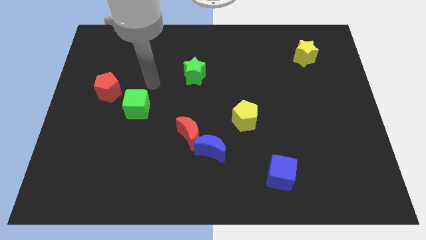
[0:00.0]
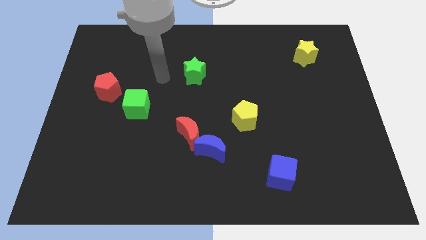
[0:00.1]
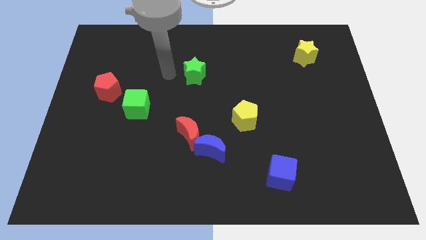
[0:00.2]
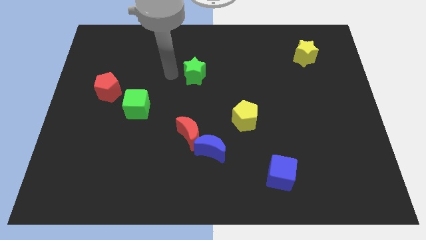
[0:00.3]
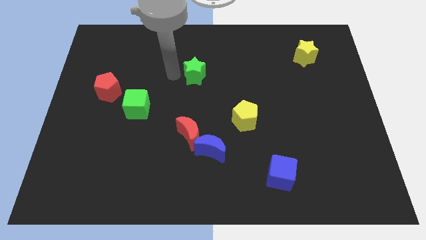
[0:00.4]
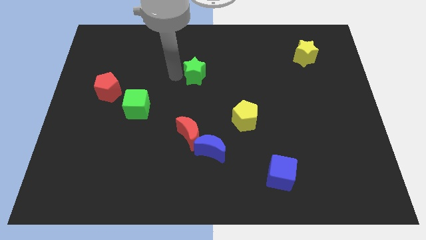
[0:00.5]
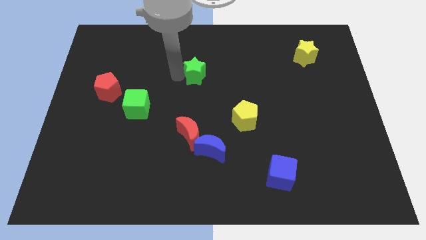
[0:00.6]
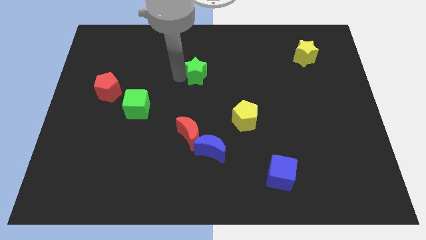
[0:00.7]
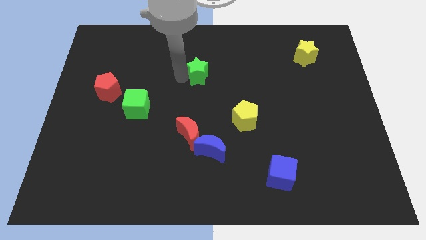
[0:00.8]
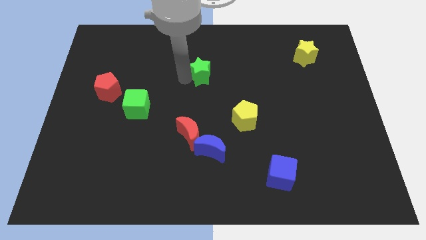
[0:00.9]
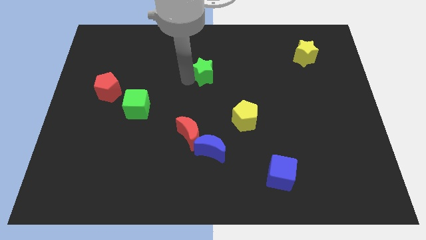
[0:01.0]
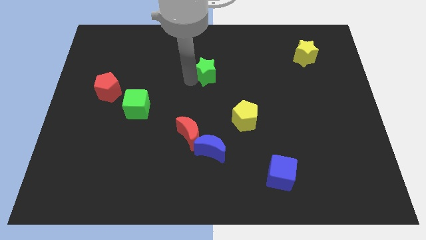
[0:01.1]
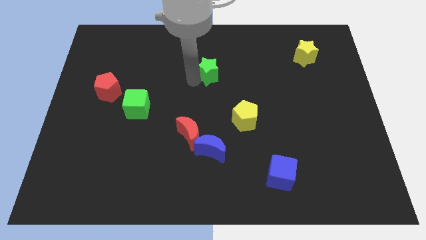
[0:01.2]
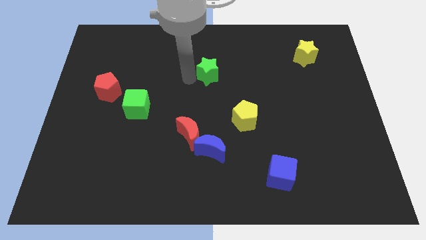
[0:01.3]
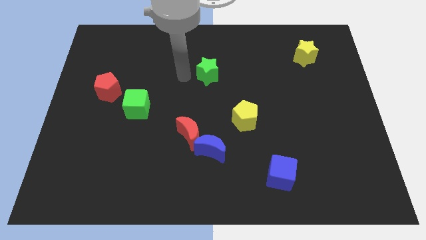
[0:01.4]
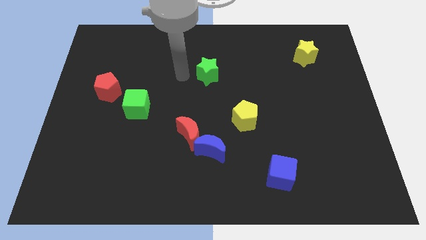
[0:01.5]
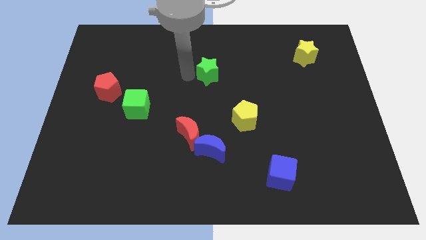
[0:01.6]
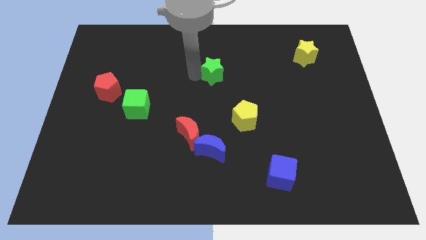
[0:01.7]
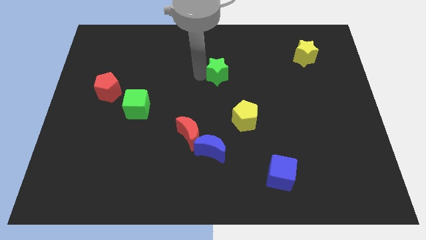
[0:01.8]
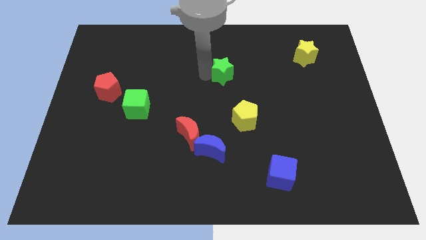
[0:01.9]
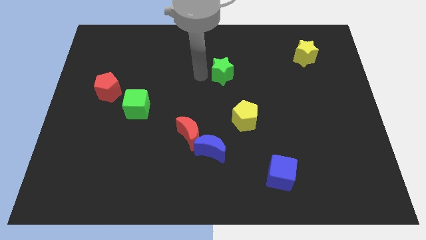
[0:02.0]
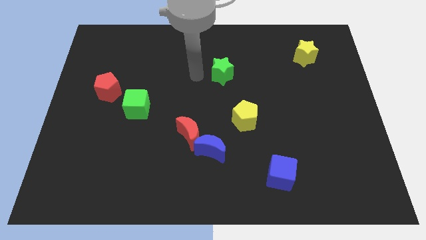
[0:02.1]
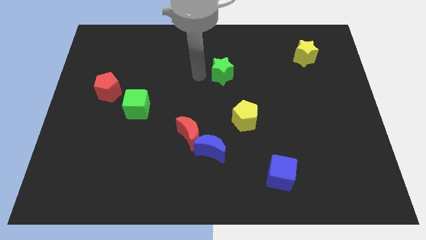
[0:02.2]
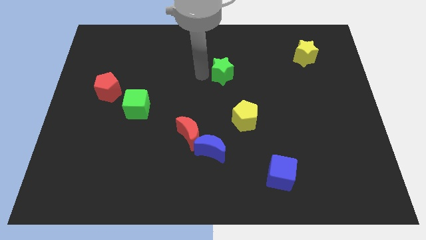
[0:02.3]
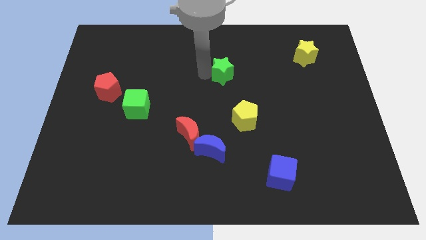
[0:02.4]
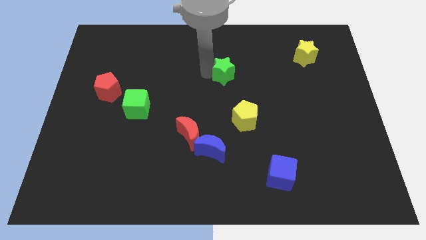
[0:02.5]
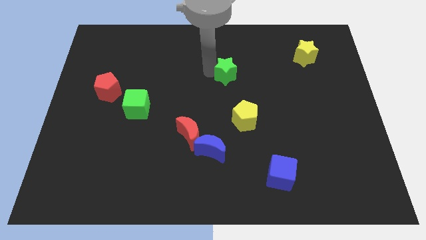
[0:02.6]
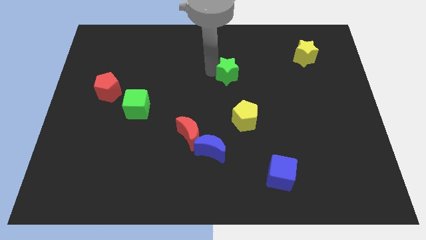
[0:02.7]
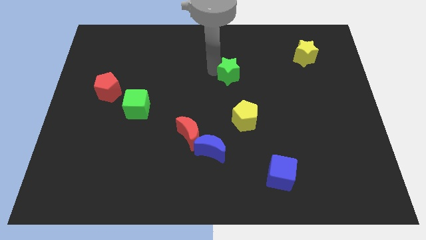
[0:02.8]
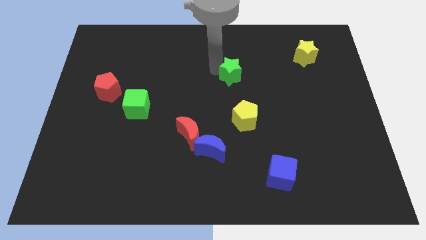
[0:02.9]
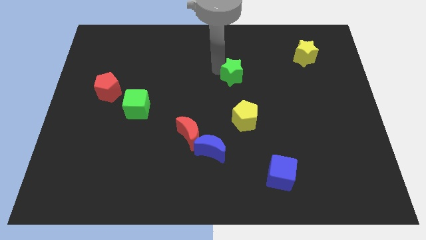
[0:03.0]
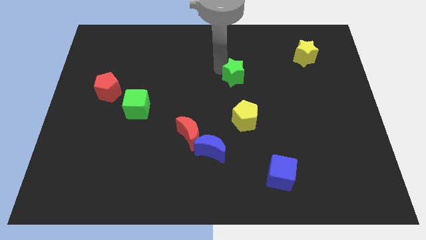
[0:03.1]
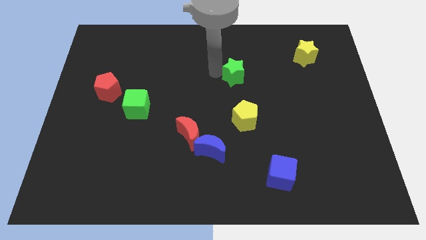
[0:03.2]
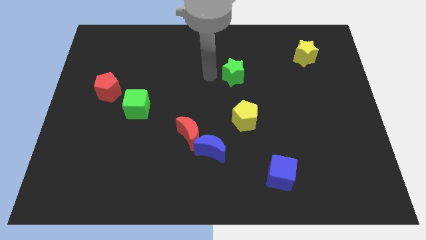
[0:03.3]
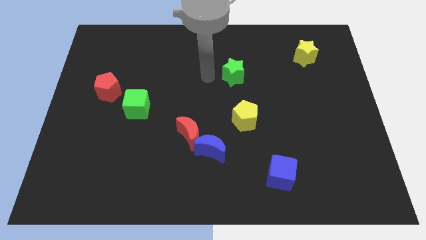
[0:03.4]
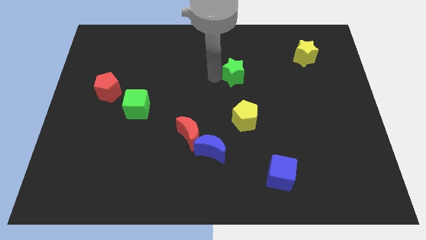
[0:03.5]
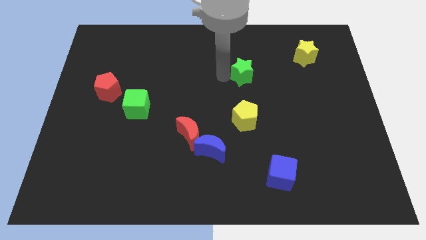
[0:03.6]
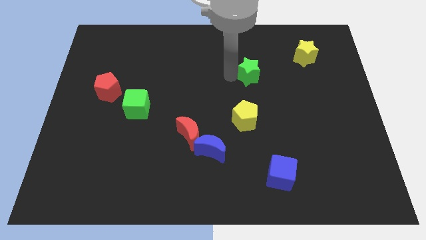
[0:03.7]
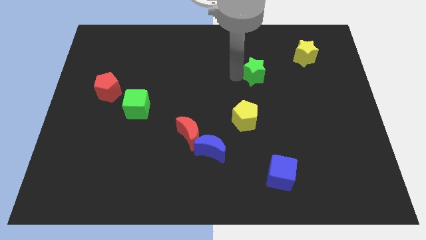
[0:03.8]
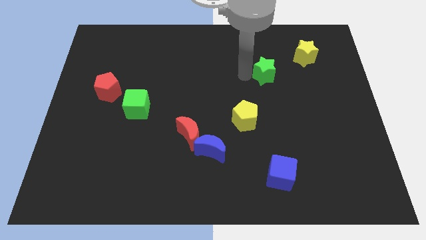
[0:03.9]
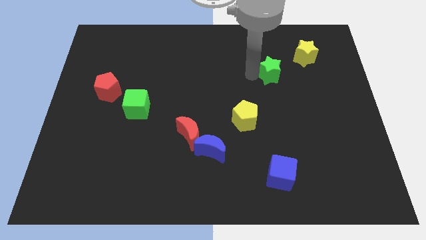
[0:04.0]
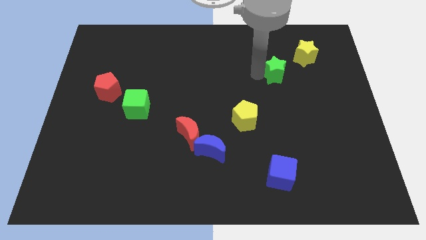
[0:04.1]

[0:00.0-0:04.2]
slide the green star to the right

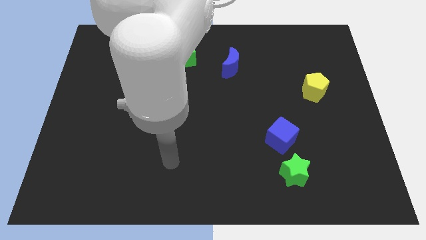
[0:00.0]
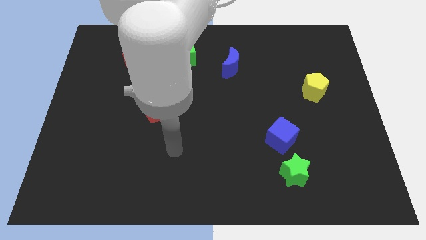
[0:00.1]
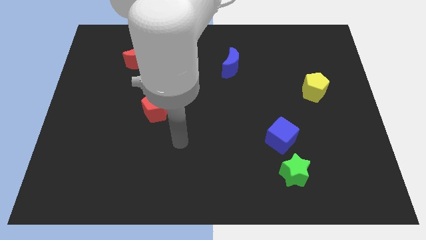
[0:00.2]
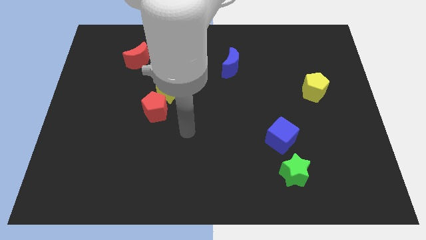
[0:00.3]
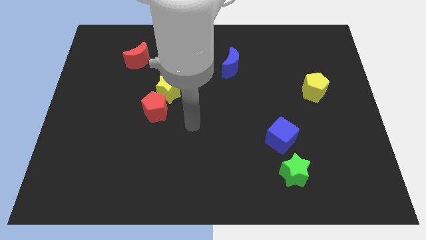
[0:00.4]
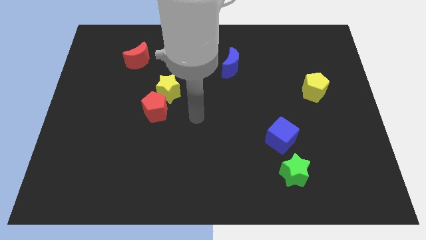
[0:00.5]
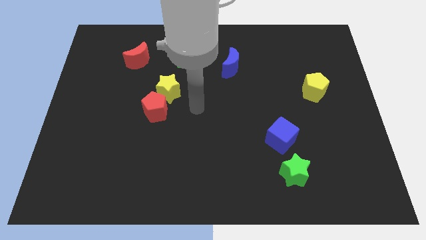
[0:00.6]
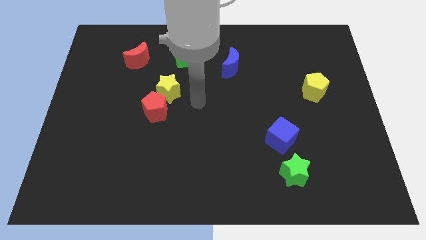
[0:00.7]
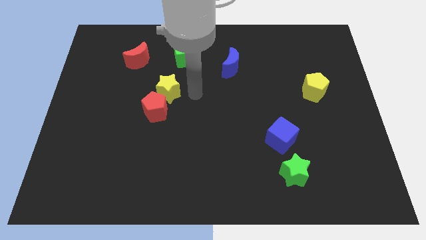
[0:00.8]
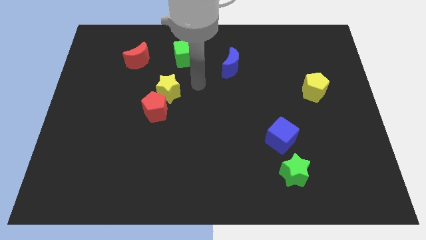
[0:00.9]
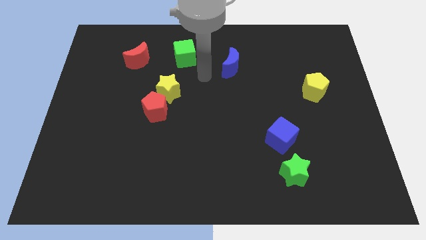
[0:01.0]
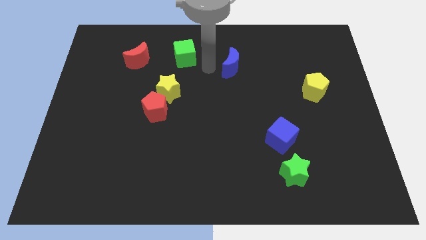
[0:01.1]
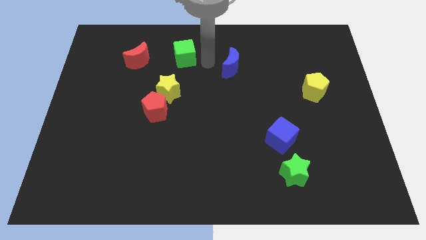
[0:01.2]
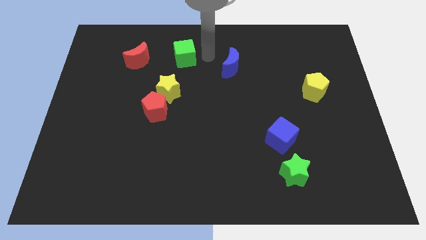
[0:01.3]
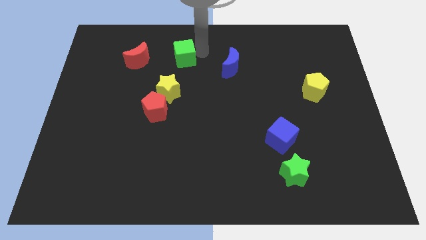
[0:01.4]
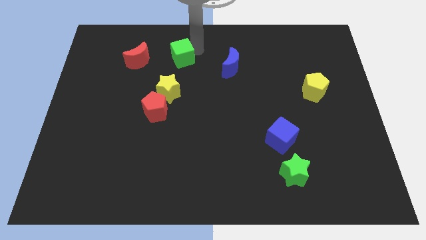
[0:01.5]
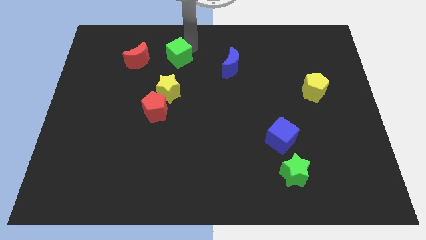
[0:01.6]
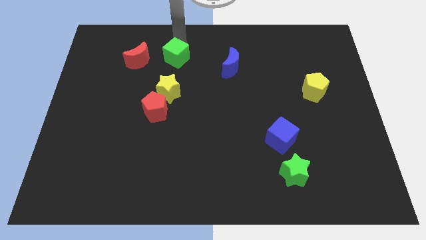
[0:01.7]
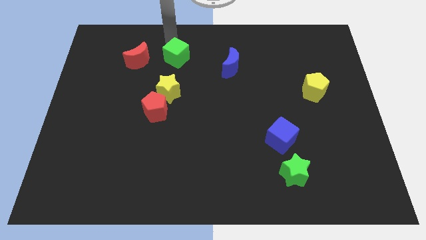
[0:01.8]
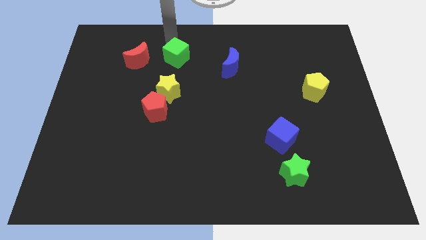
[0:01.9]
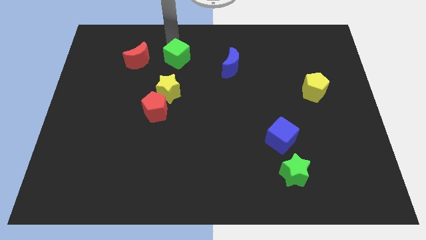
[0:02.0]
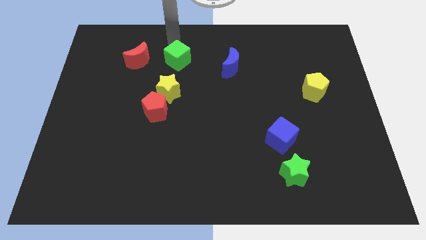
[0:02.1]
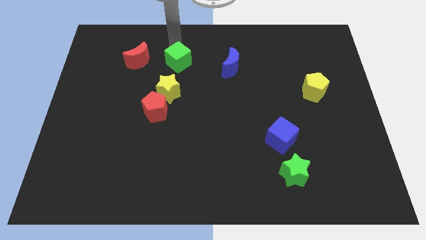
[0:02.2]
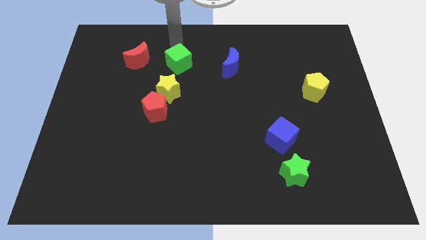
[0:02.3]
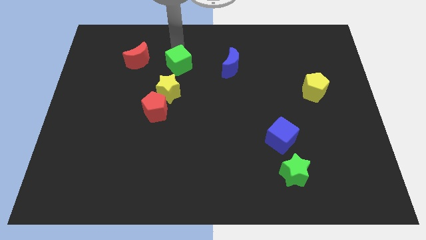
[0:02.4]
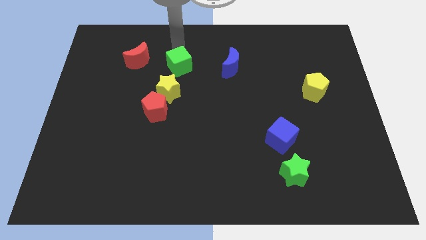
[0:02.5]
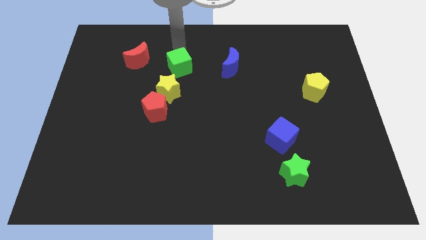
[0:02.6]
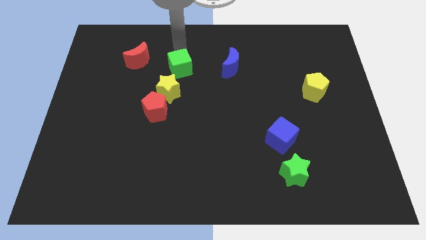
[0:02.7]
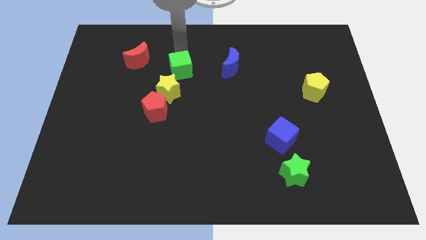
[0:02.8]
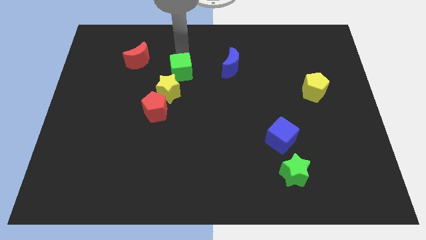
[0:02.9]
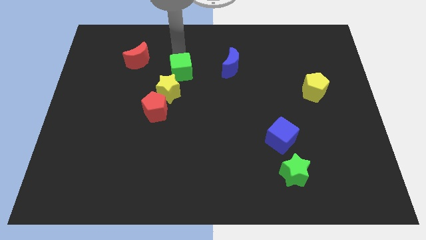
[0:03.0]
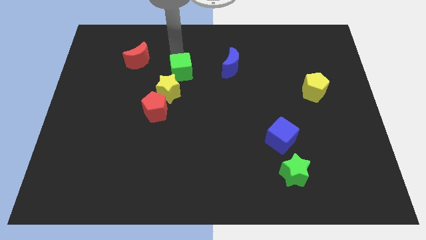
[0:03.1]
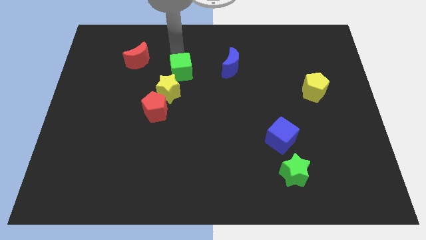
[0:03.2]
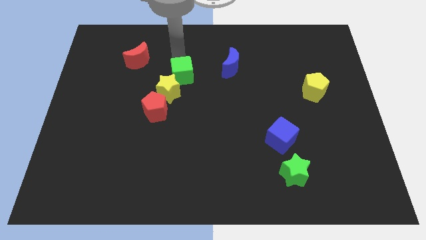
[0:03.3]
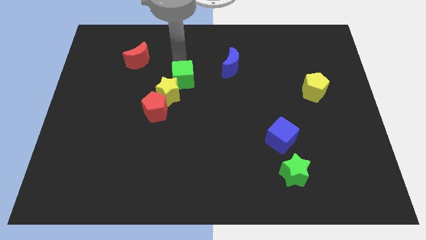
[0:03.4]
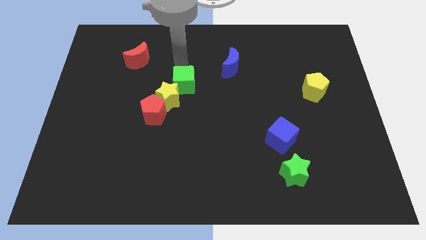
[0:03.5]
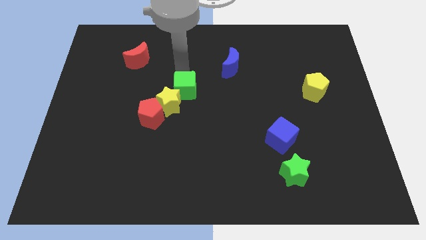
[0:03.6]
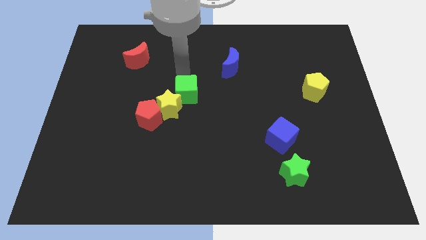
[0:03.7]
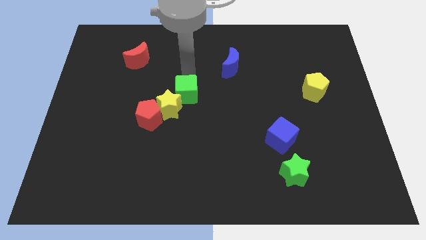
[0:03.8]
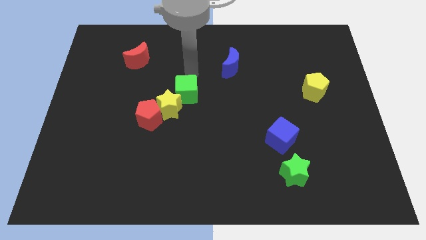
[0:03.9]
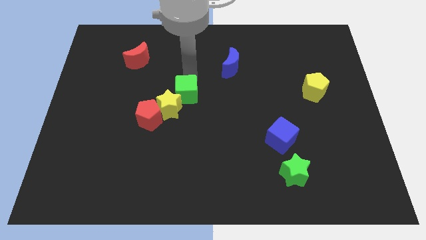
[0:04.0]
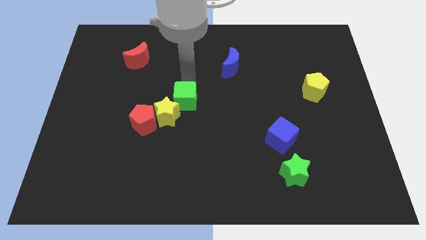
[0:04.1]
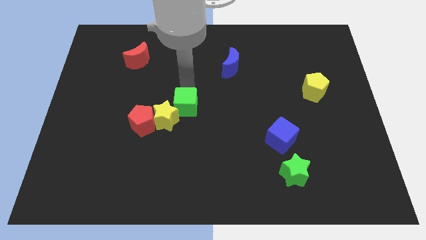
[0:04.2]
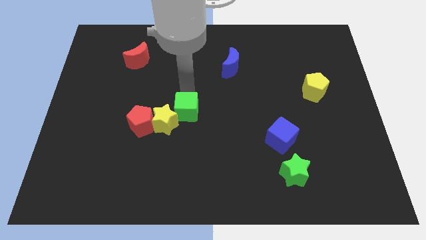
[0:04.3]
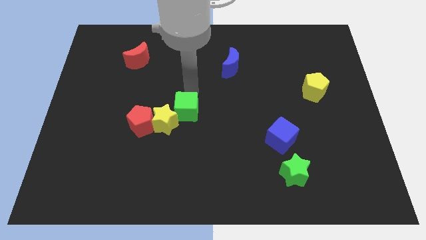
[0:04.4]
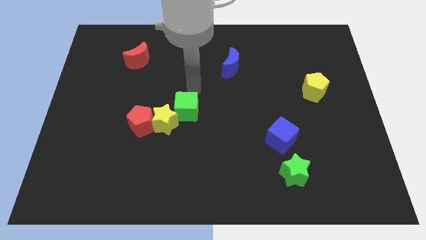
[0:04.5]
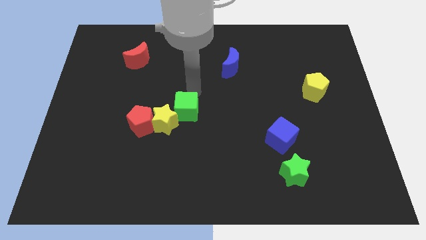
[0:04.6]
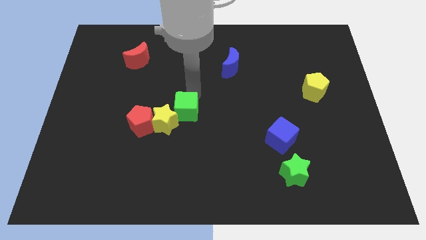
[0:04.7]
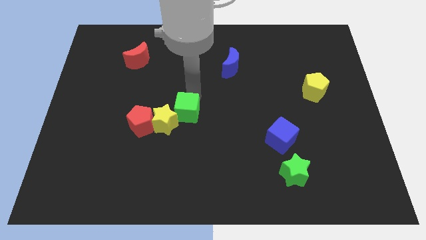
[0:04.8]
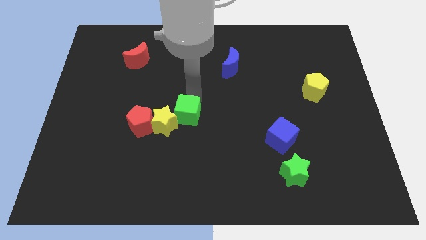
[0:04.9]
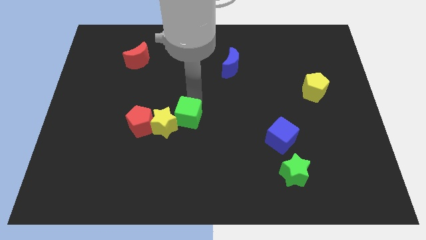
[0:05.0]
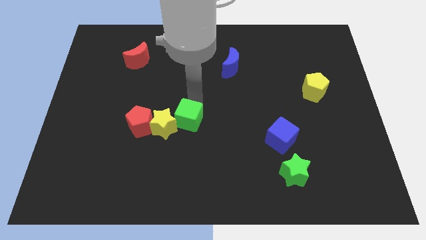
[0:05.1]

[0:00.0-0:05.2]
slide the green cube down
